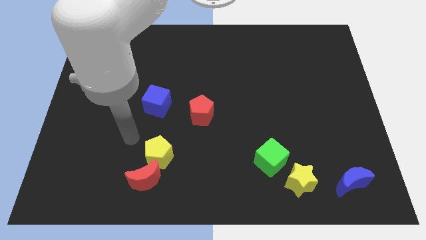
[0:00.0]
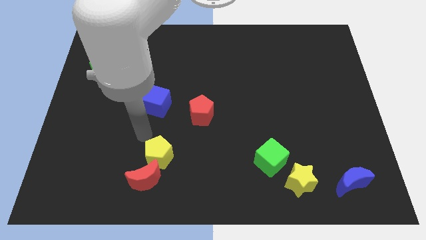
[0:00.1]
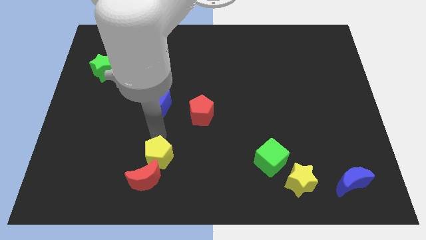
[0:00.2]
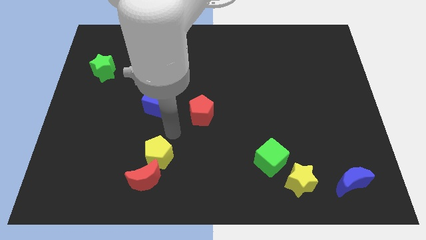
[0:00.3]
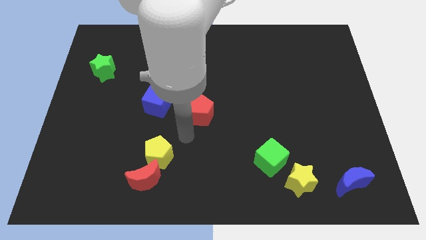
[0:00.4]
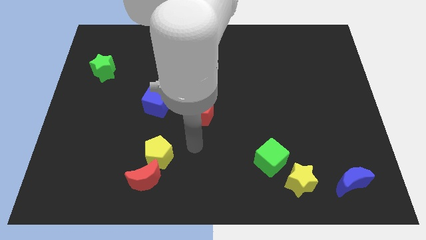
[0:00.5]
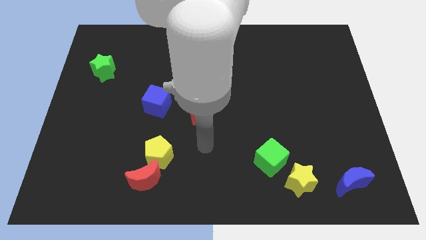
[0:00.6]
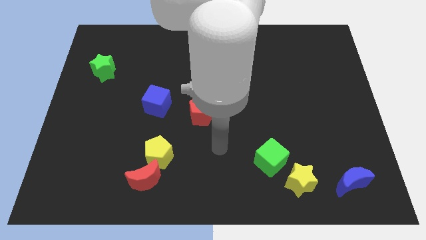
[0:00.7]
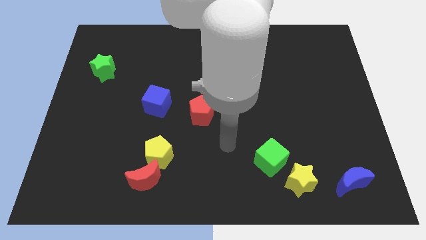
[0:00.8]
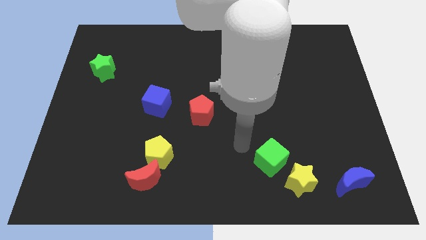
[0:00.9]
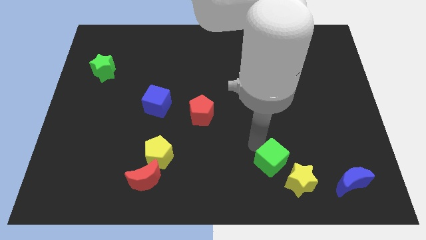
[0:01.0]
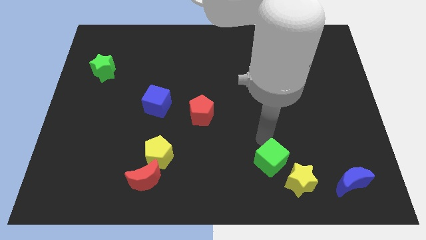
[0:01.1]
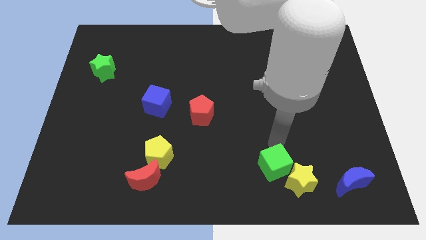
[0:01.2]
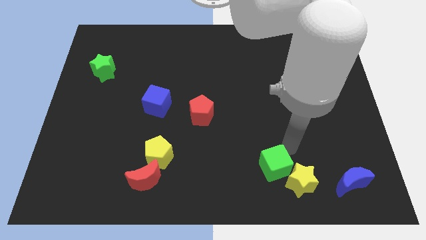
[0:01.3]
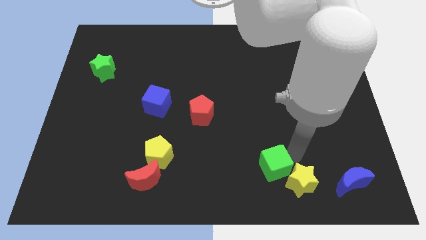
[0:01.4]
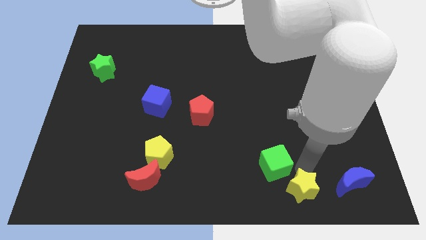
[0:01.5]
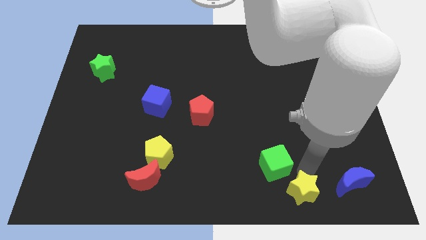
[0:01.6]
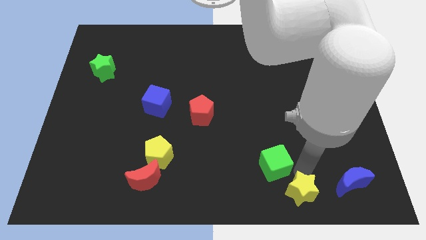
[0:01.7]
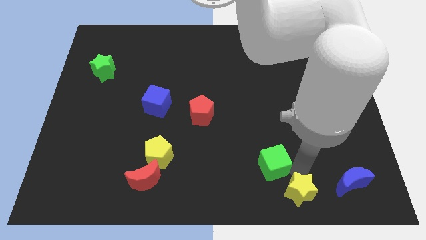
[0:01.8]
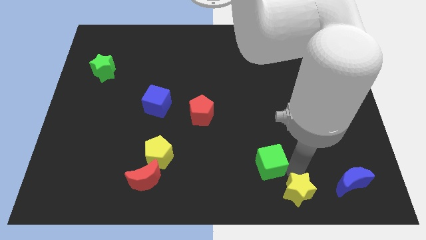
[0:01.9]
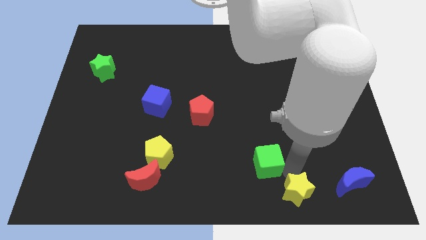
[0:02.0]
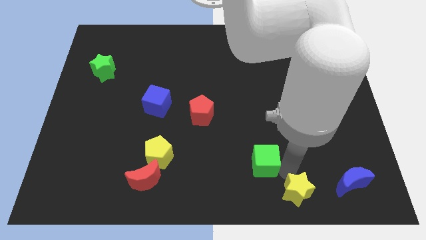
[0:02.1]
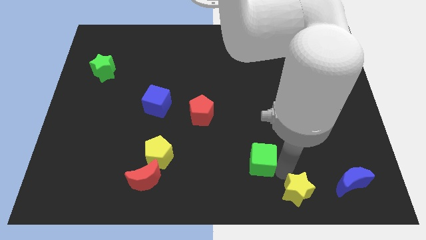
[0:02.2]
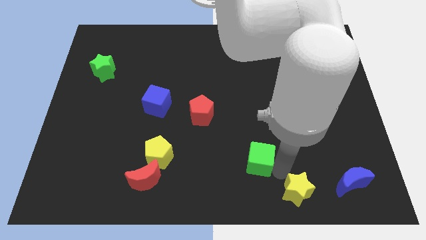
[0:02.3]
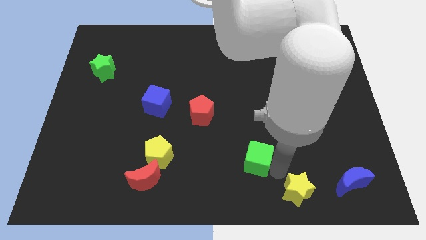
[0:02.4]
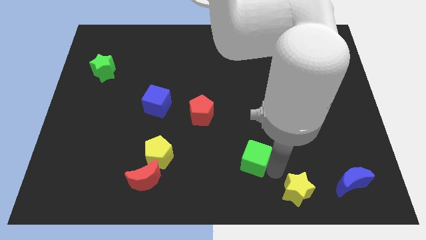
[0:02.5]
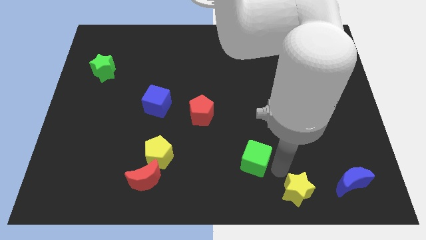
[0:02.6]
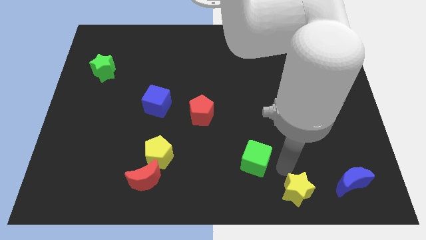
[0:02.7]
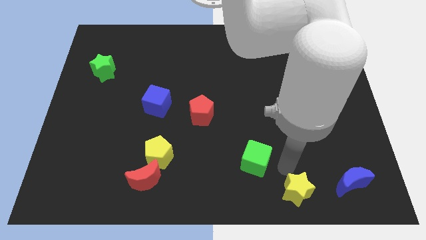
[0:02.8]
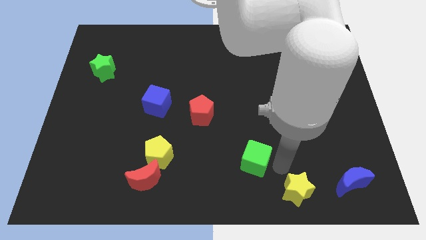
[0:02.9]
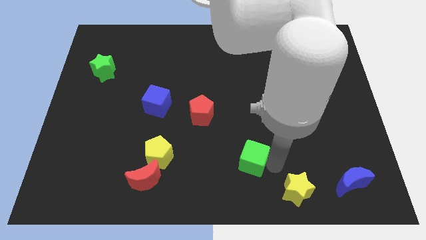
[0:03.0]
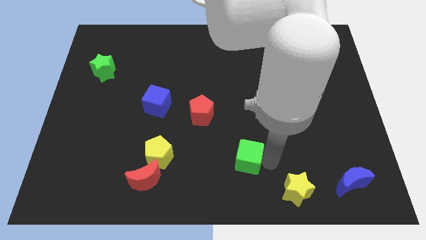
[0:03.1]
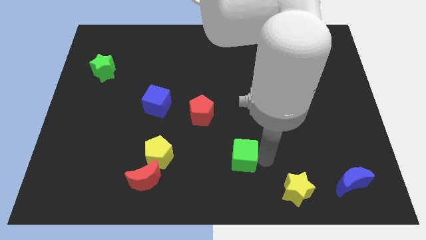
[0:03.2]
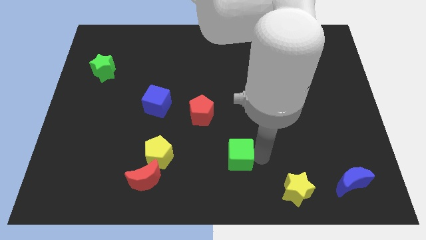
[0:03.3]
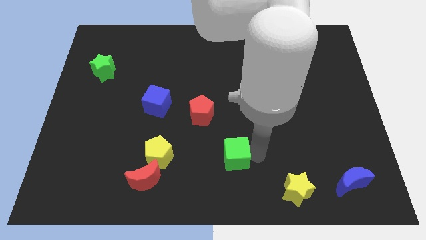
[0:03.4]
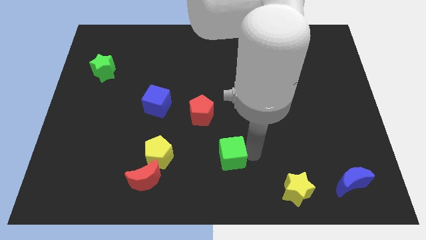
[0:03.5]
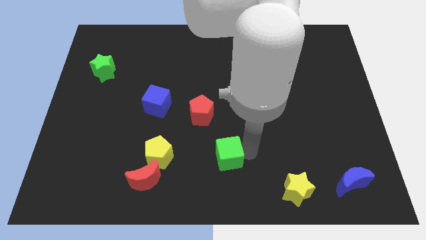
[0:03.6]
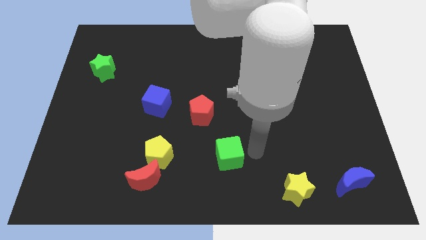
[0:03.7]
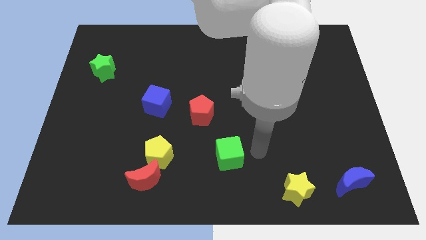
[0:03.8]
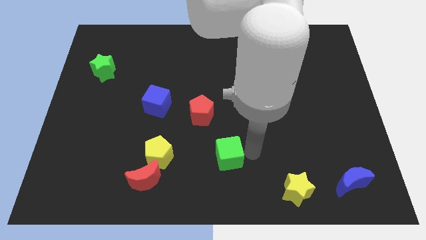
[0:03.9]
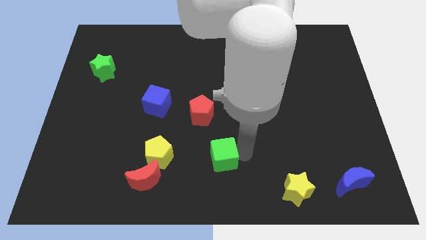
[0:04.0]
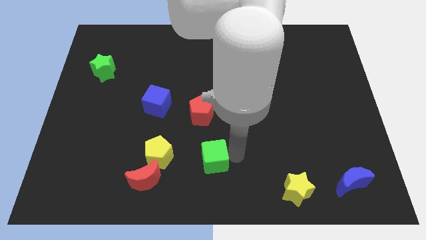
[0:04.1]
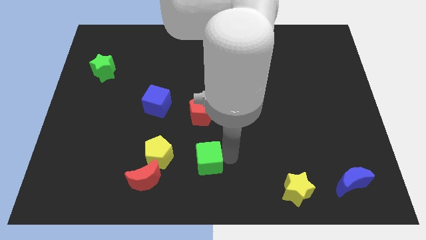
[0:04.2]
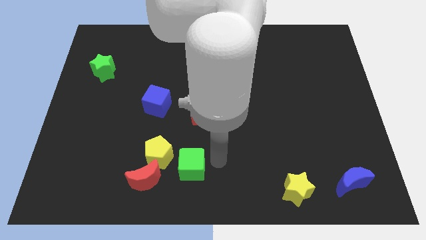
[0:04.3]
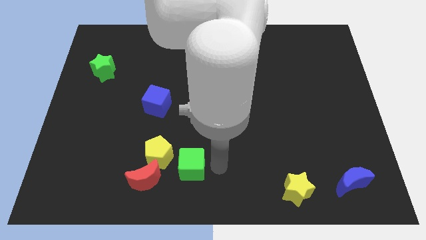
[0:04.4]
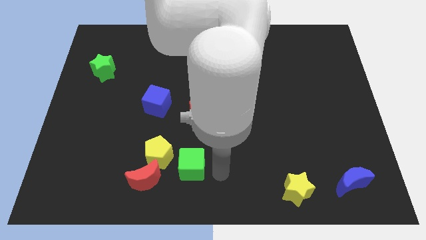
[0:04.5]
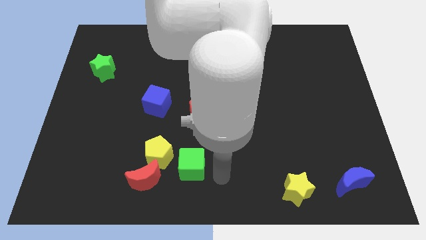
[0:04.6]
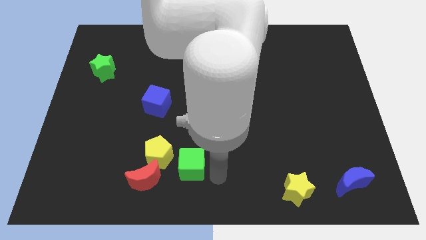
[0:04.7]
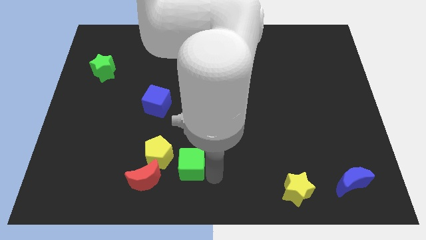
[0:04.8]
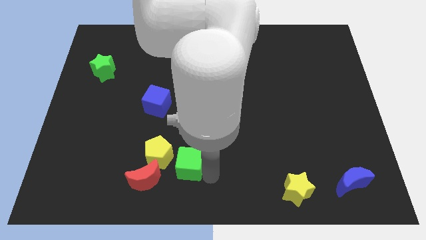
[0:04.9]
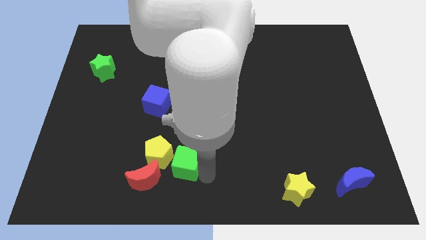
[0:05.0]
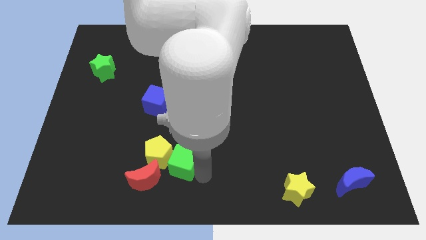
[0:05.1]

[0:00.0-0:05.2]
move the green cube towards the yellow pentagon

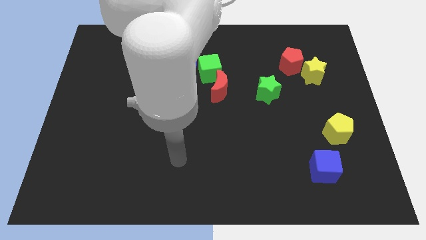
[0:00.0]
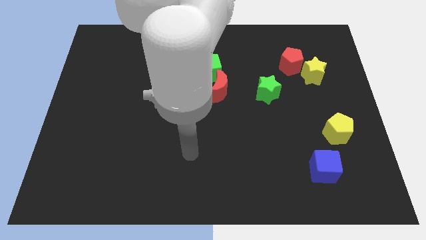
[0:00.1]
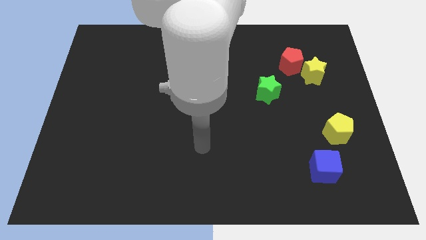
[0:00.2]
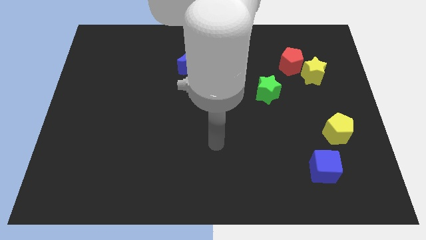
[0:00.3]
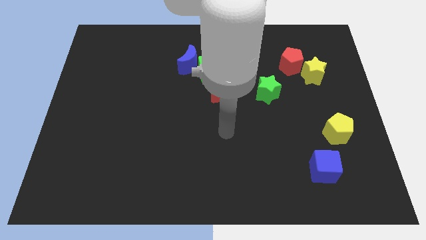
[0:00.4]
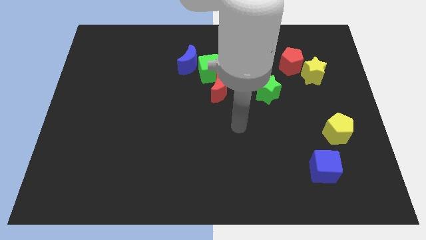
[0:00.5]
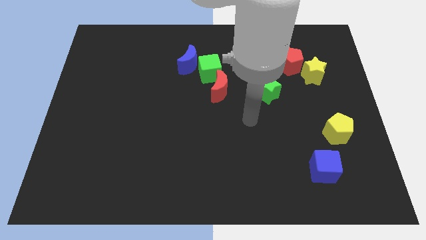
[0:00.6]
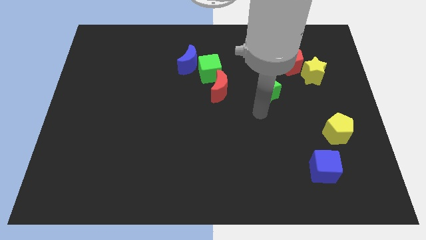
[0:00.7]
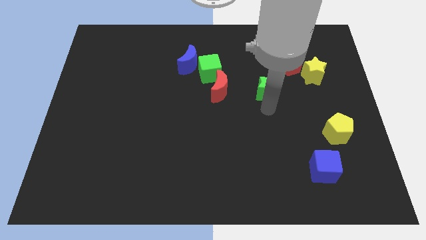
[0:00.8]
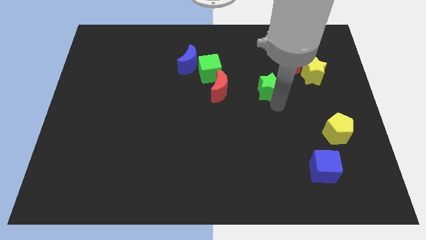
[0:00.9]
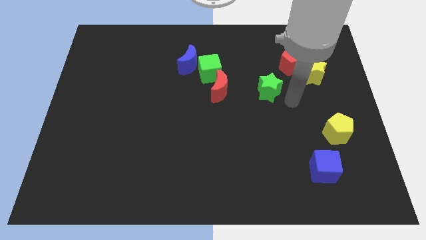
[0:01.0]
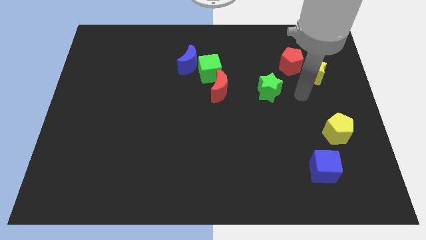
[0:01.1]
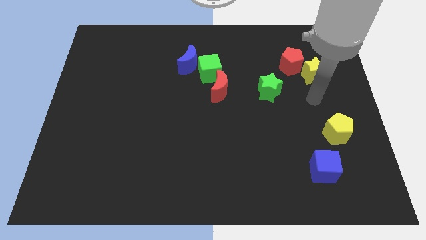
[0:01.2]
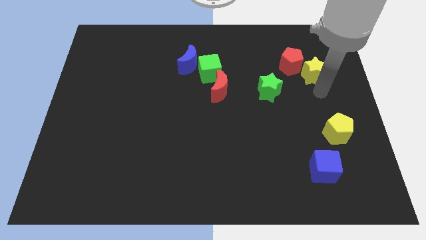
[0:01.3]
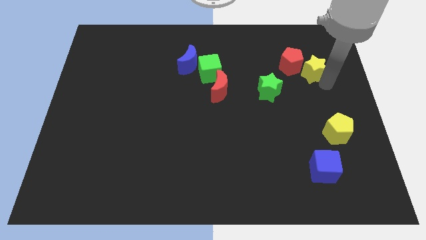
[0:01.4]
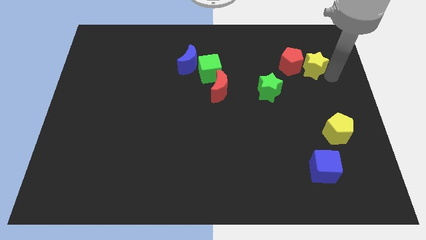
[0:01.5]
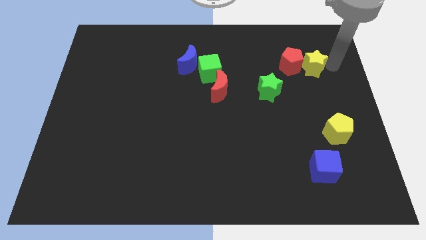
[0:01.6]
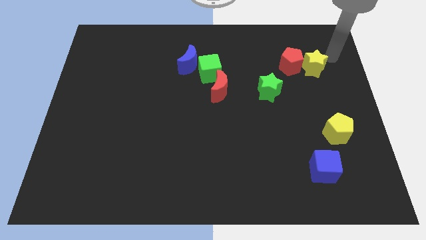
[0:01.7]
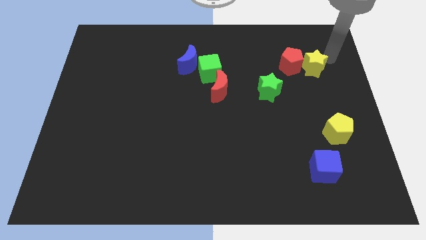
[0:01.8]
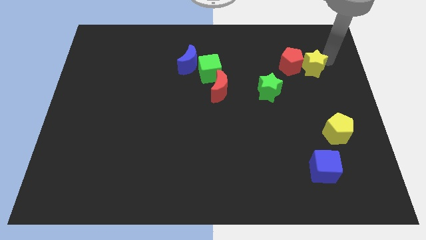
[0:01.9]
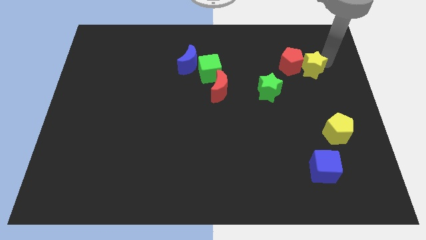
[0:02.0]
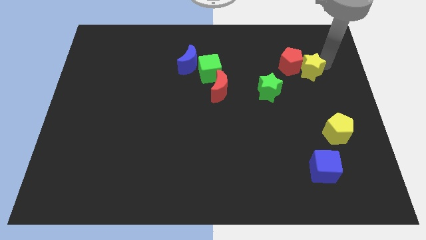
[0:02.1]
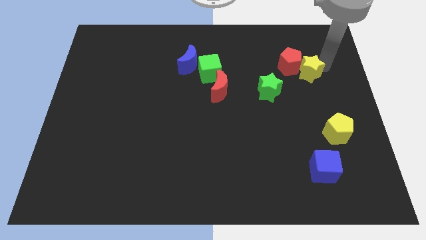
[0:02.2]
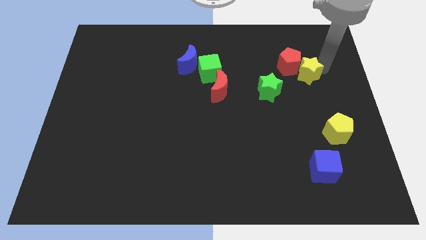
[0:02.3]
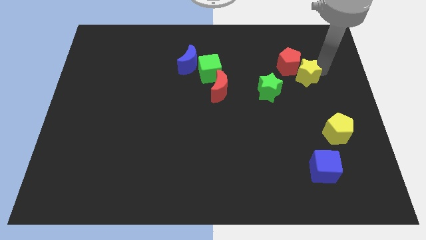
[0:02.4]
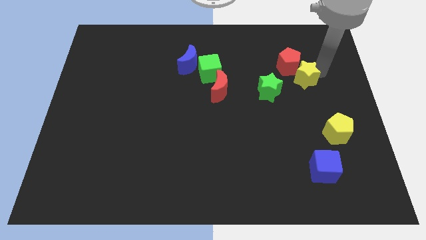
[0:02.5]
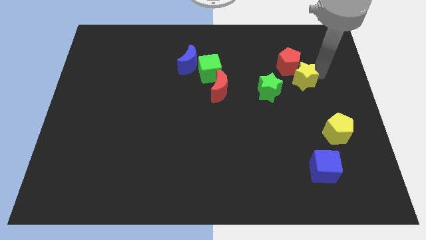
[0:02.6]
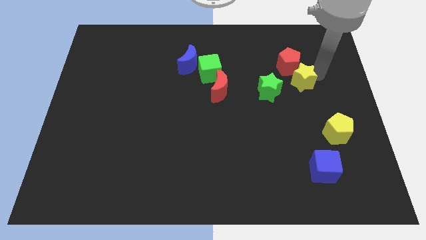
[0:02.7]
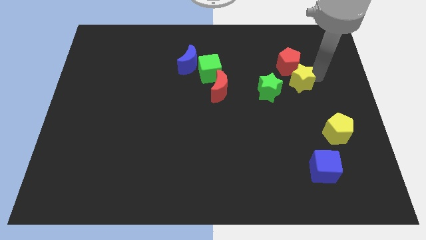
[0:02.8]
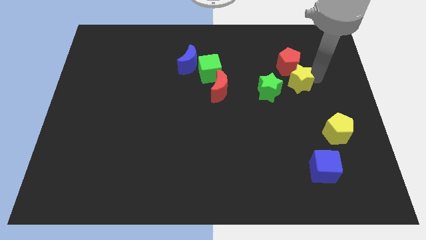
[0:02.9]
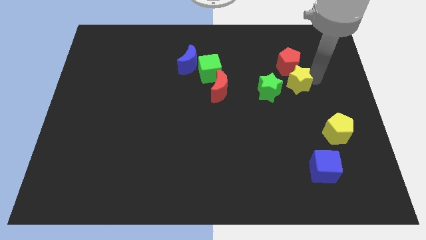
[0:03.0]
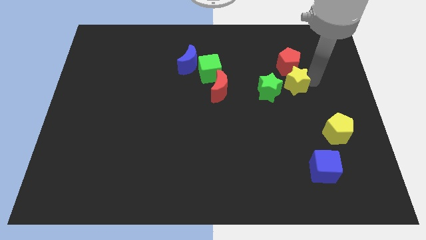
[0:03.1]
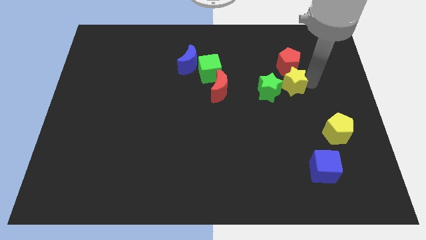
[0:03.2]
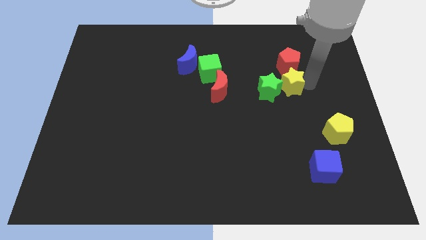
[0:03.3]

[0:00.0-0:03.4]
push the yellow star towards the green star
